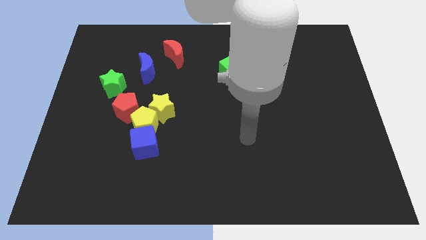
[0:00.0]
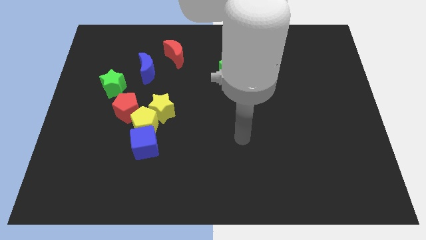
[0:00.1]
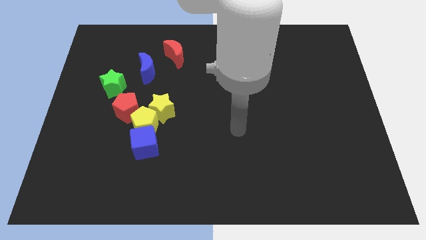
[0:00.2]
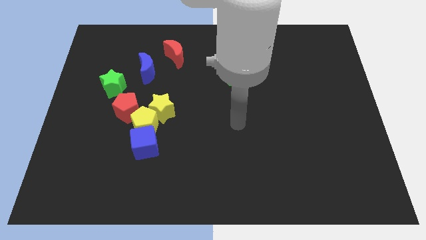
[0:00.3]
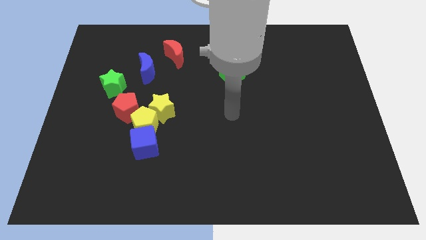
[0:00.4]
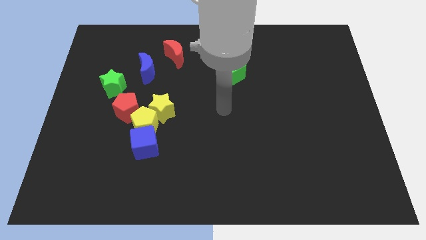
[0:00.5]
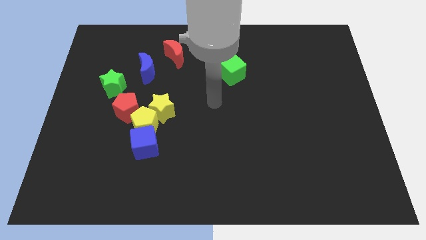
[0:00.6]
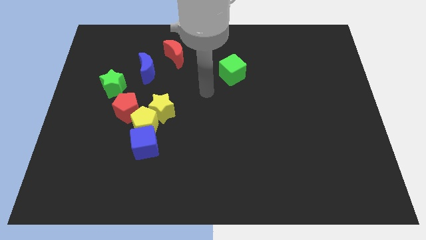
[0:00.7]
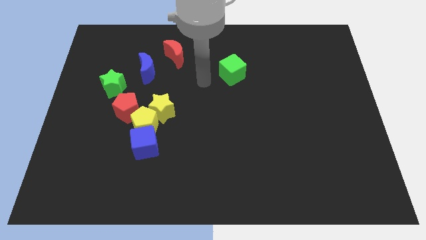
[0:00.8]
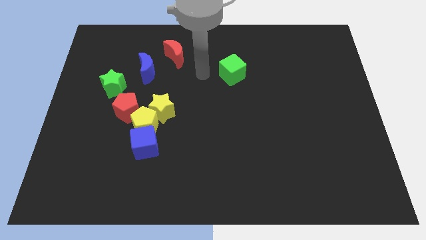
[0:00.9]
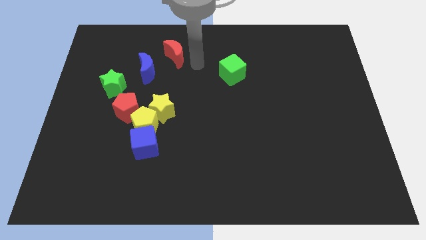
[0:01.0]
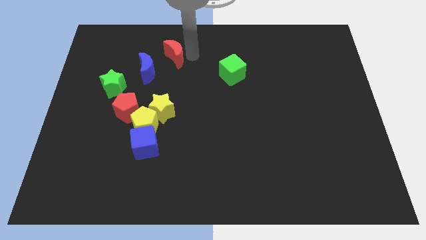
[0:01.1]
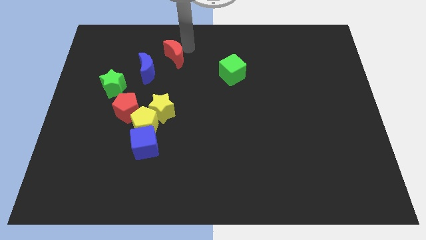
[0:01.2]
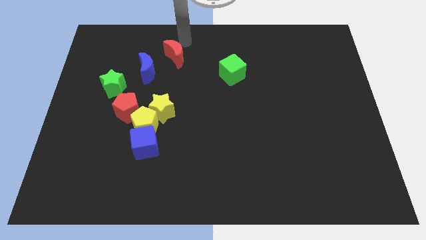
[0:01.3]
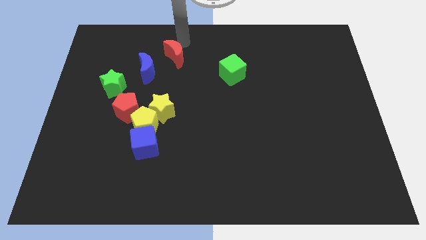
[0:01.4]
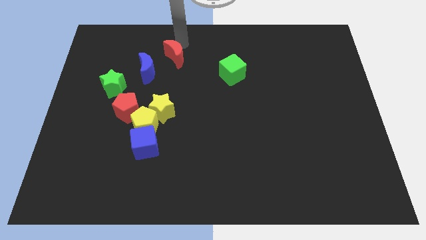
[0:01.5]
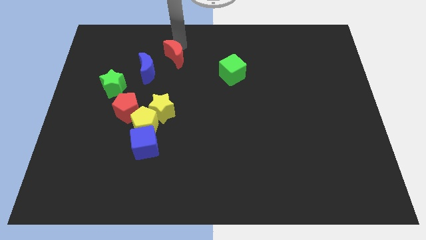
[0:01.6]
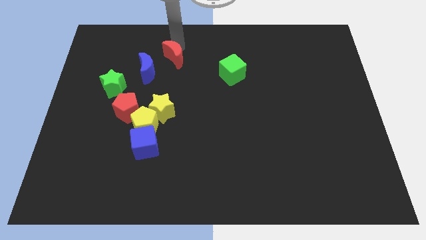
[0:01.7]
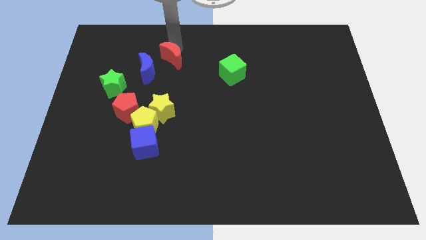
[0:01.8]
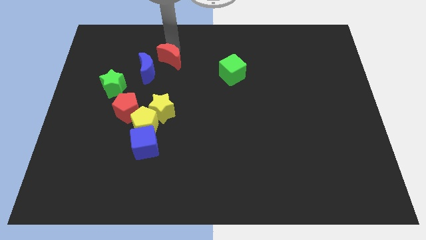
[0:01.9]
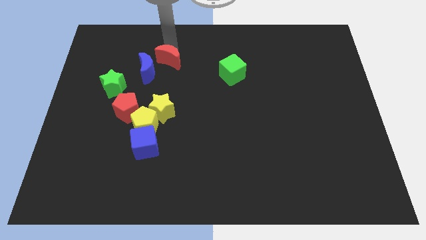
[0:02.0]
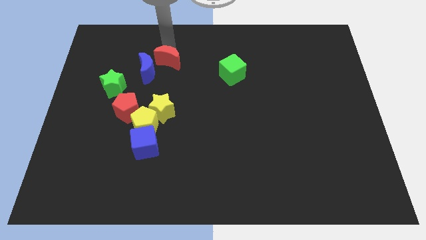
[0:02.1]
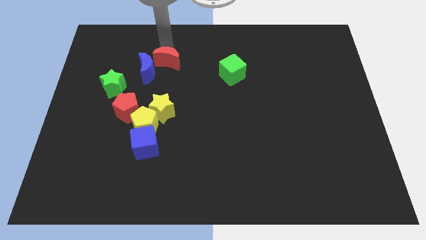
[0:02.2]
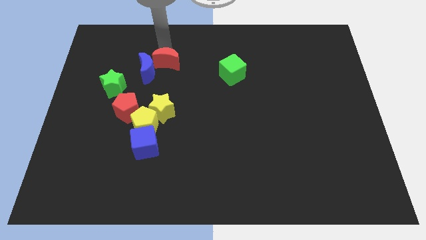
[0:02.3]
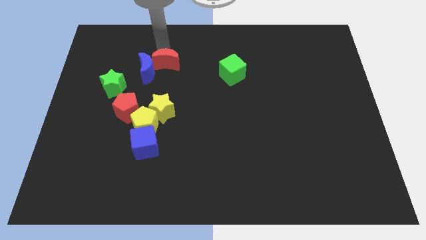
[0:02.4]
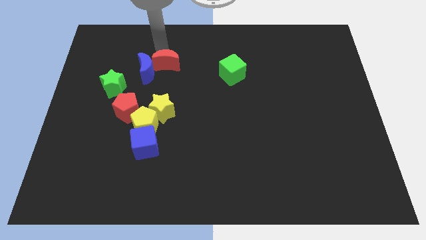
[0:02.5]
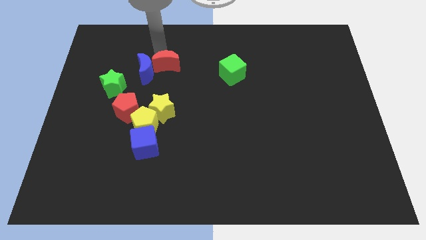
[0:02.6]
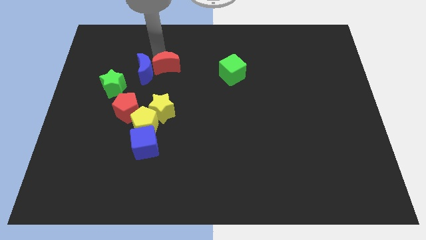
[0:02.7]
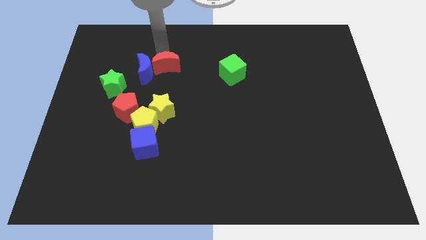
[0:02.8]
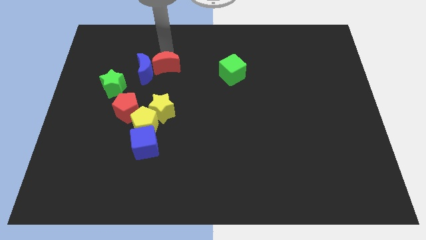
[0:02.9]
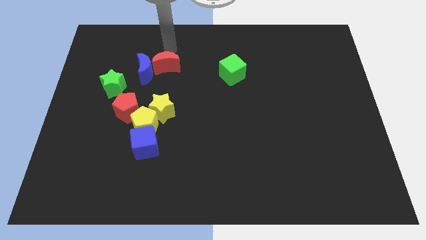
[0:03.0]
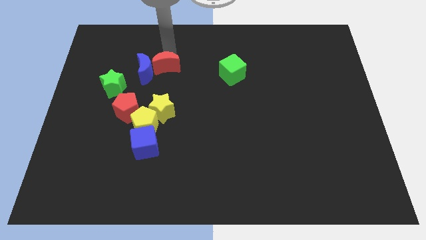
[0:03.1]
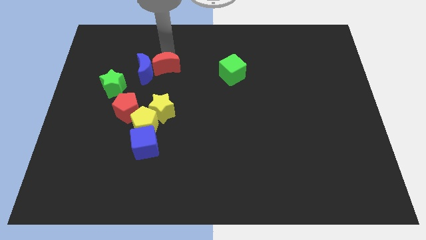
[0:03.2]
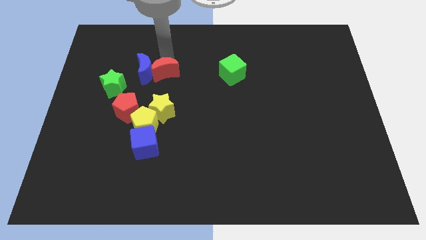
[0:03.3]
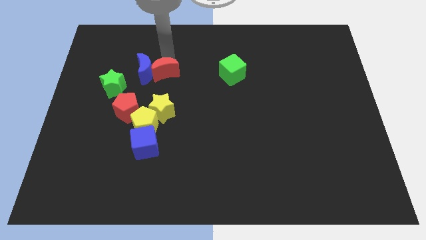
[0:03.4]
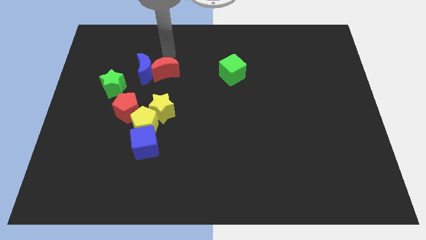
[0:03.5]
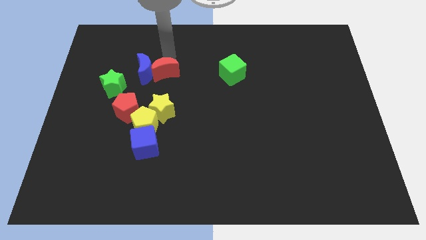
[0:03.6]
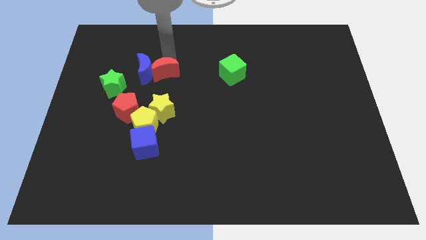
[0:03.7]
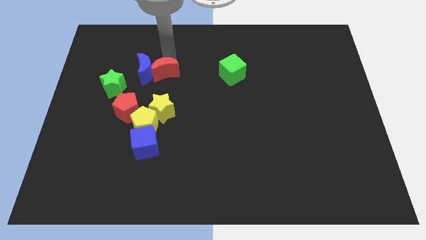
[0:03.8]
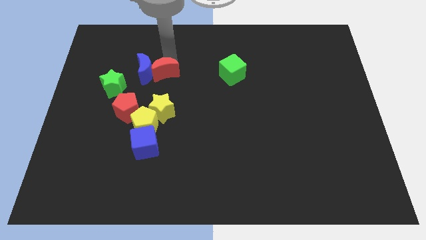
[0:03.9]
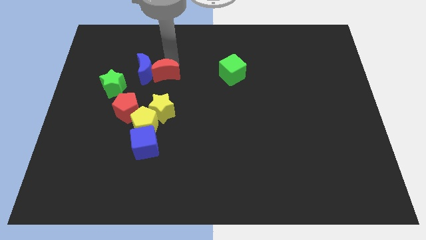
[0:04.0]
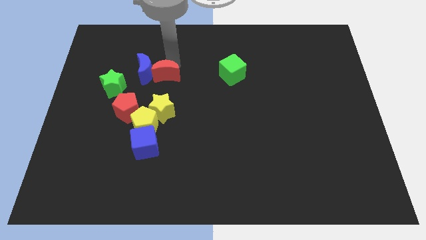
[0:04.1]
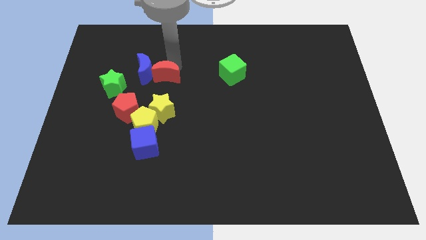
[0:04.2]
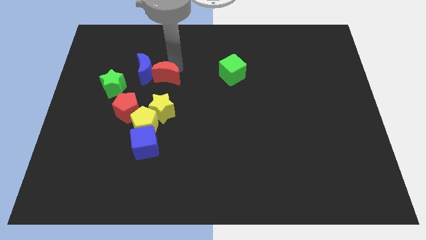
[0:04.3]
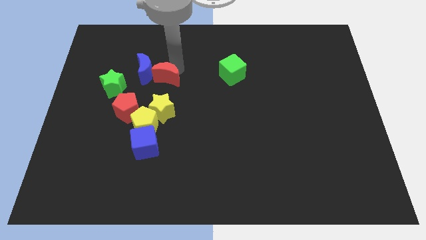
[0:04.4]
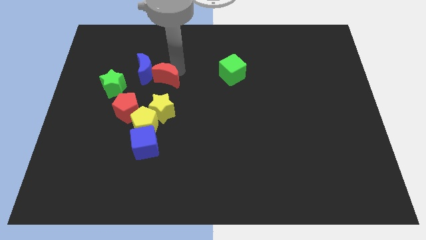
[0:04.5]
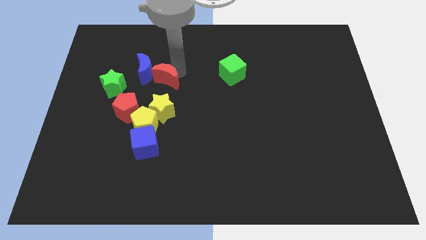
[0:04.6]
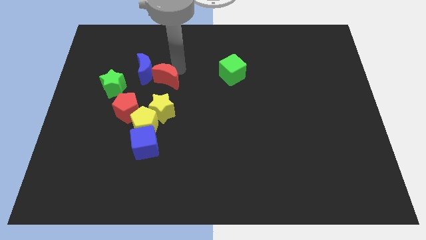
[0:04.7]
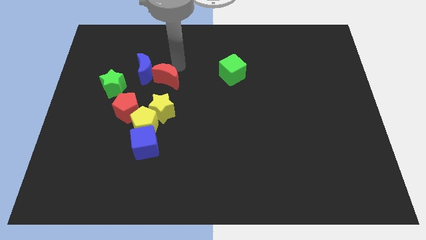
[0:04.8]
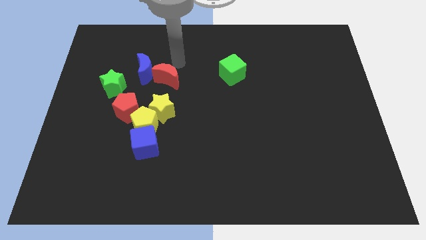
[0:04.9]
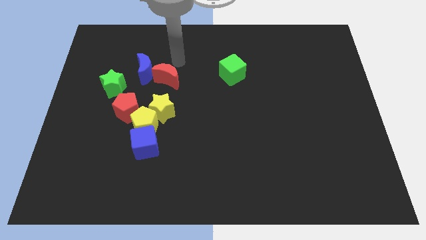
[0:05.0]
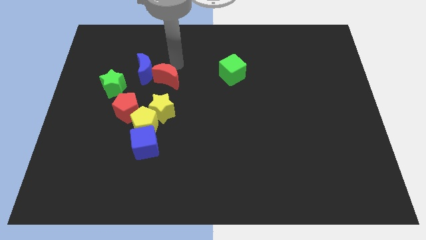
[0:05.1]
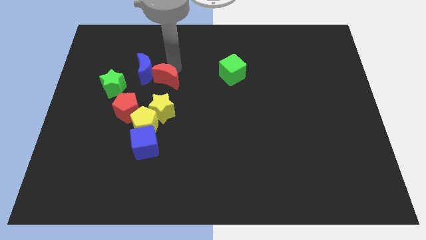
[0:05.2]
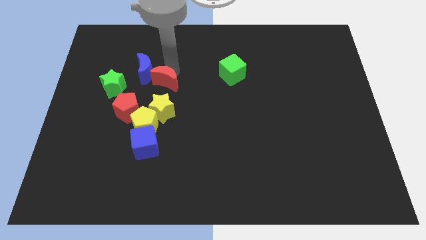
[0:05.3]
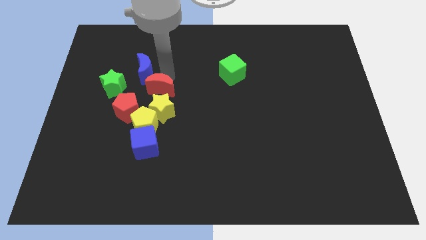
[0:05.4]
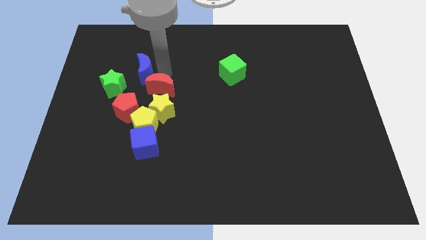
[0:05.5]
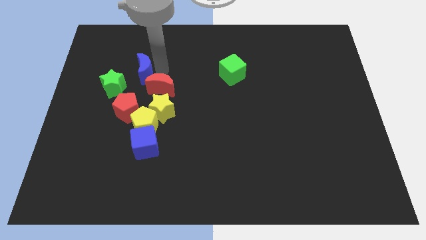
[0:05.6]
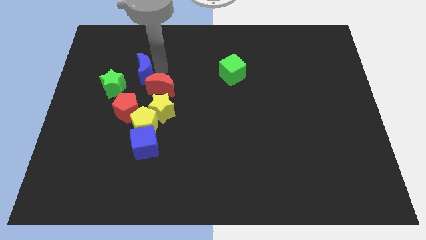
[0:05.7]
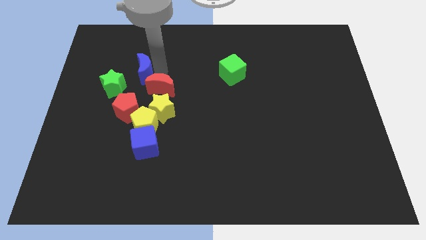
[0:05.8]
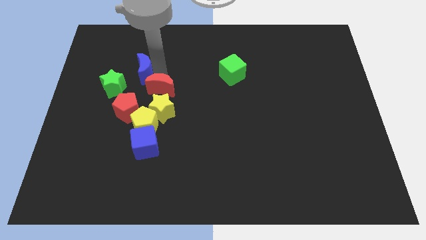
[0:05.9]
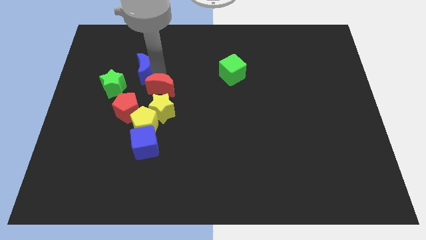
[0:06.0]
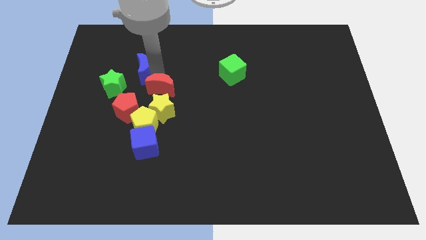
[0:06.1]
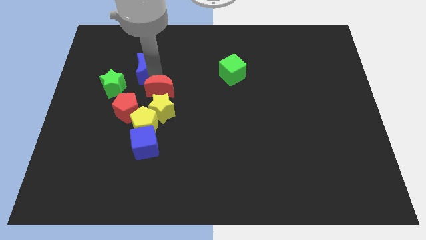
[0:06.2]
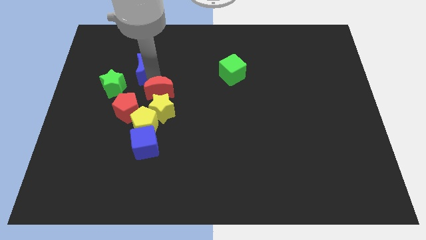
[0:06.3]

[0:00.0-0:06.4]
push the red moon next to the yellow star

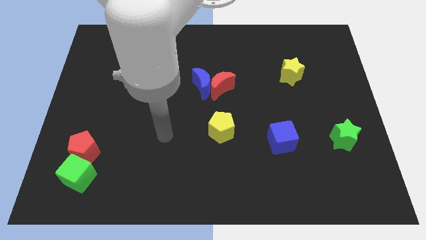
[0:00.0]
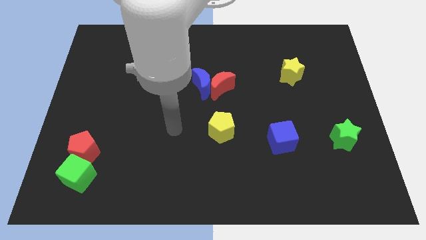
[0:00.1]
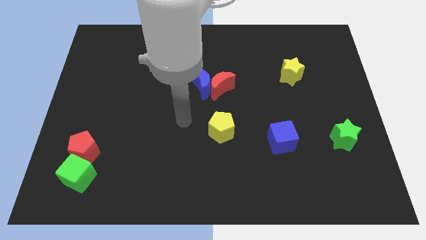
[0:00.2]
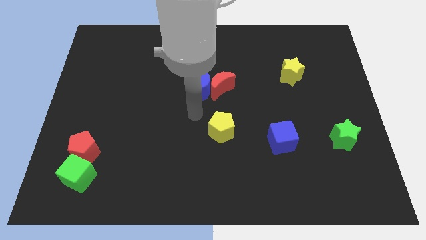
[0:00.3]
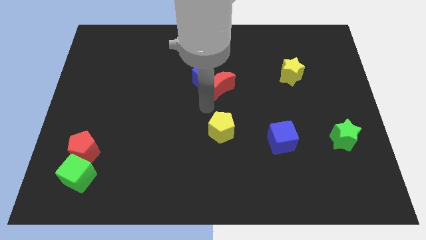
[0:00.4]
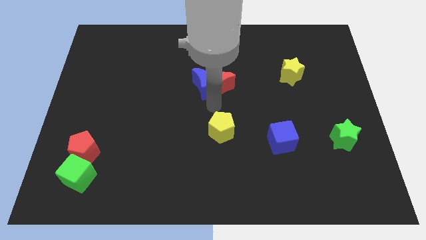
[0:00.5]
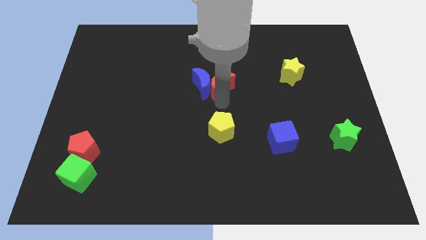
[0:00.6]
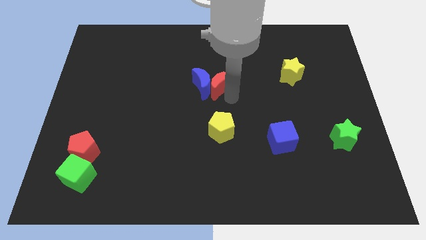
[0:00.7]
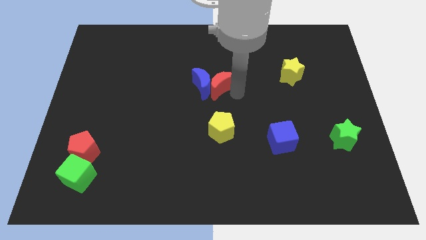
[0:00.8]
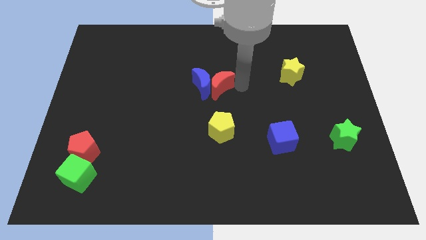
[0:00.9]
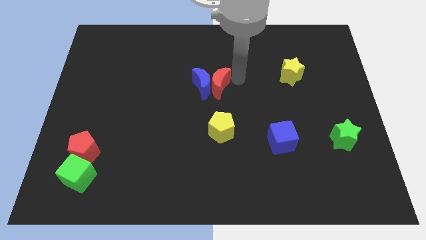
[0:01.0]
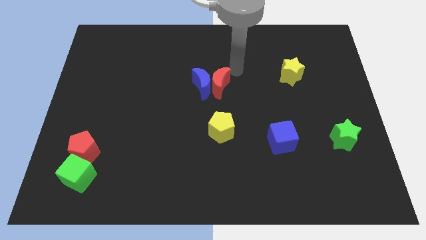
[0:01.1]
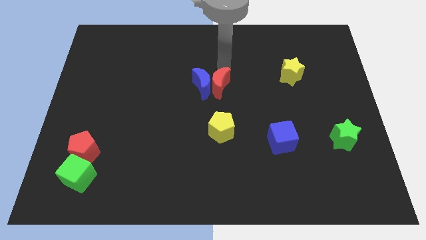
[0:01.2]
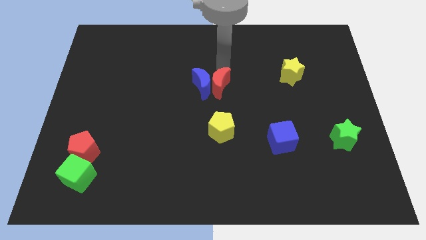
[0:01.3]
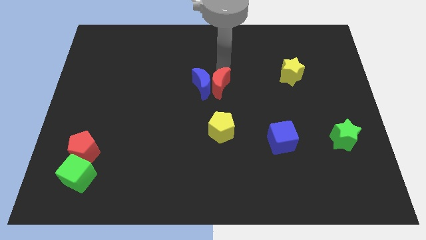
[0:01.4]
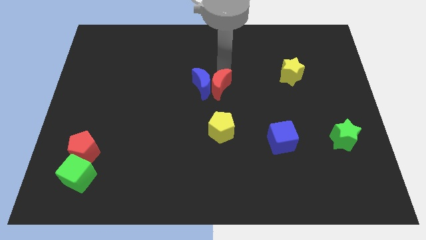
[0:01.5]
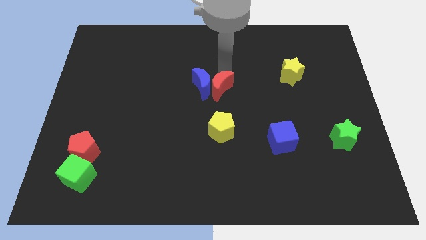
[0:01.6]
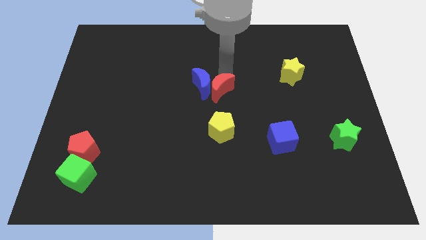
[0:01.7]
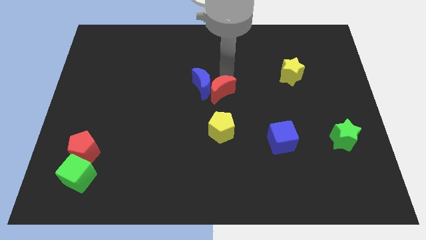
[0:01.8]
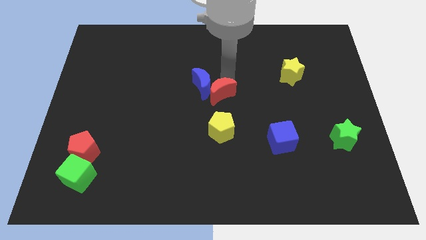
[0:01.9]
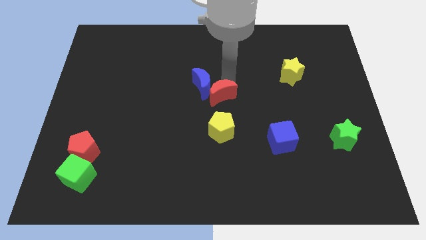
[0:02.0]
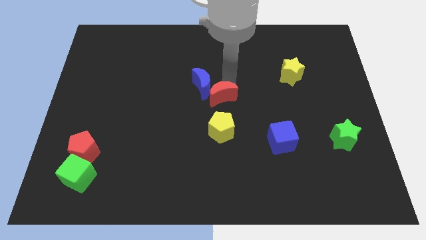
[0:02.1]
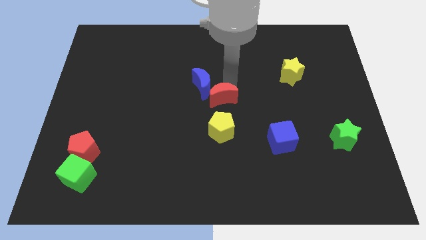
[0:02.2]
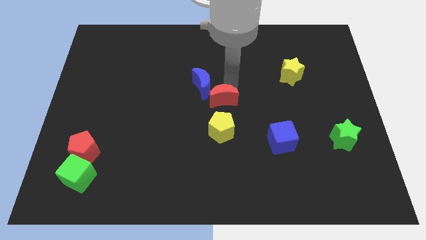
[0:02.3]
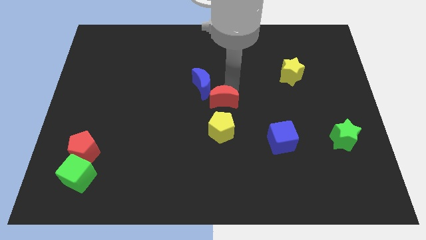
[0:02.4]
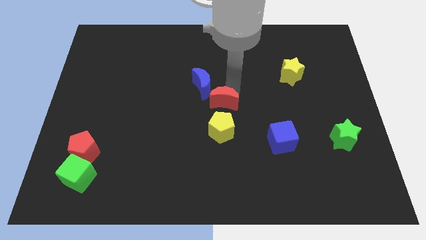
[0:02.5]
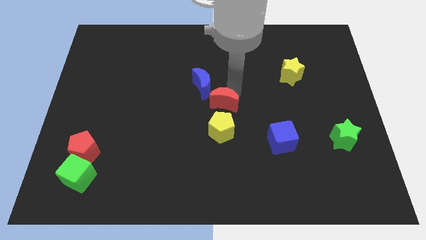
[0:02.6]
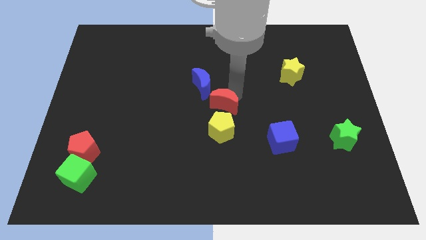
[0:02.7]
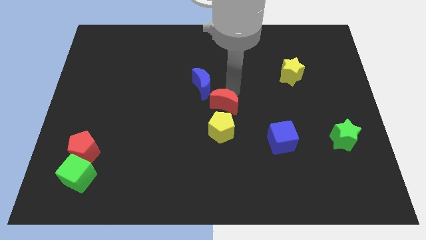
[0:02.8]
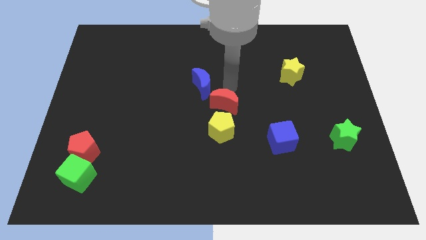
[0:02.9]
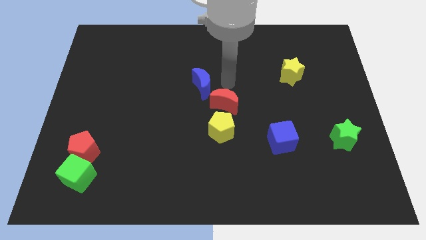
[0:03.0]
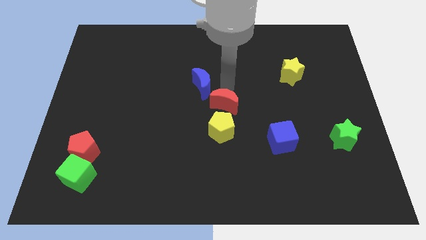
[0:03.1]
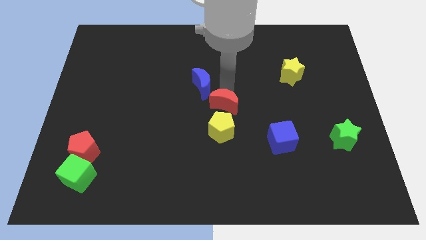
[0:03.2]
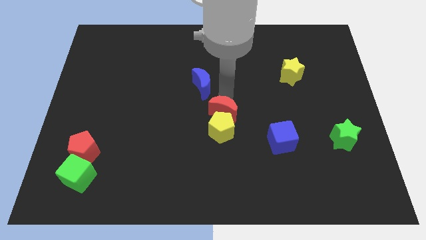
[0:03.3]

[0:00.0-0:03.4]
slide the red moon next to the yellow pentagon
